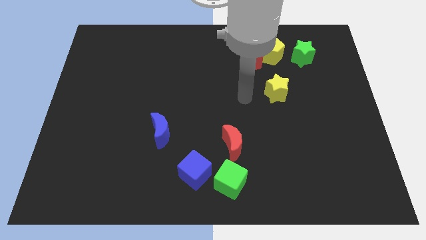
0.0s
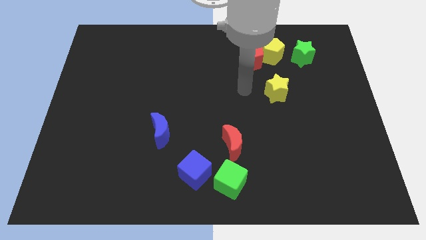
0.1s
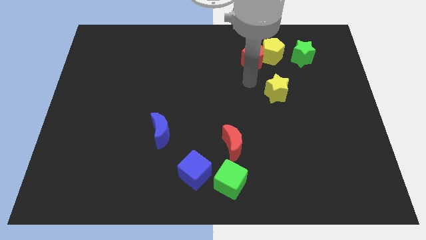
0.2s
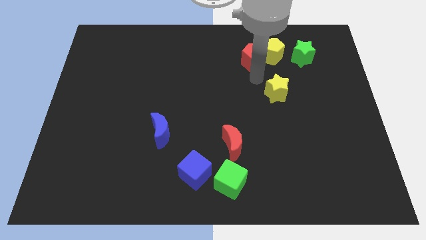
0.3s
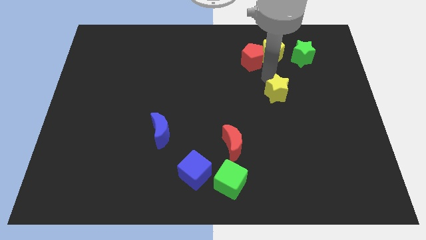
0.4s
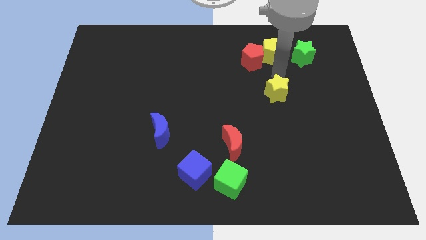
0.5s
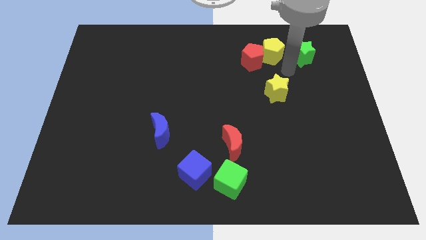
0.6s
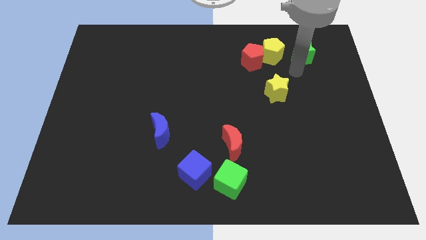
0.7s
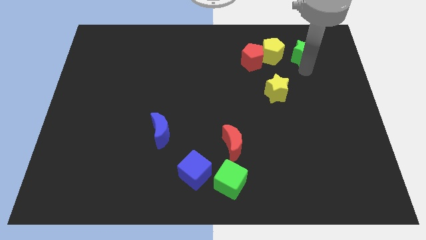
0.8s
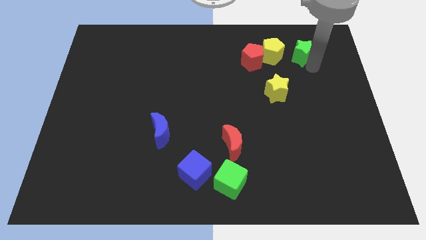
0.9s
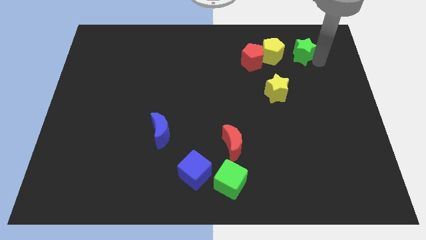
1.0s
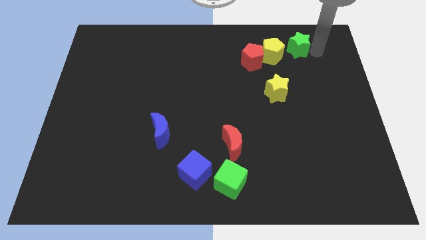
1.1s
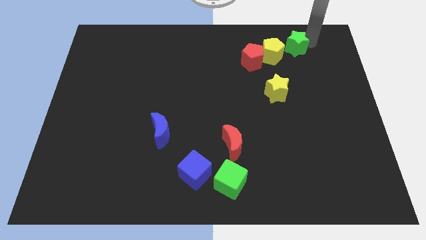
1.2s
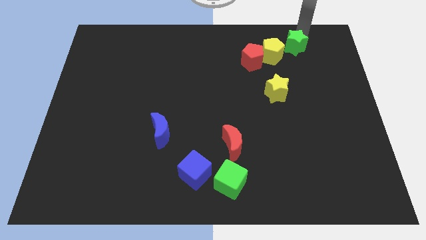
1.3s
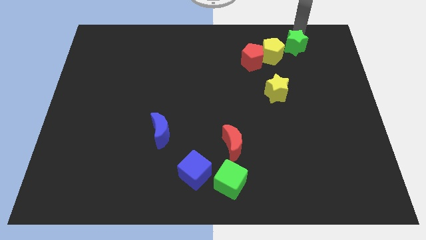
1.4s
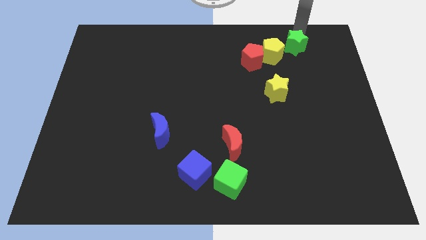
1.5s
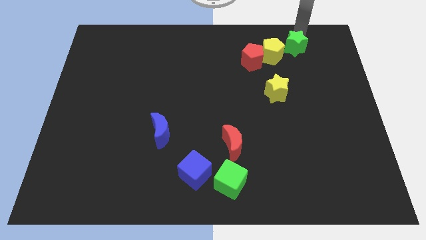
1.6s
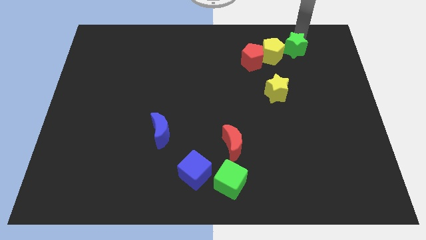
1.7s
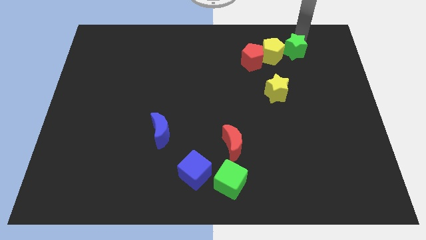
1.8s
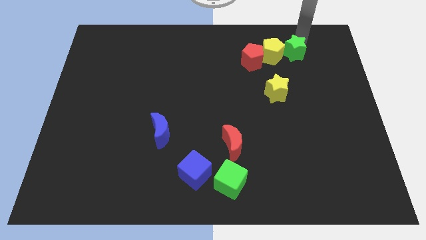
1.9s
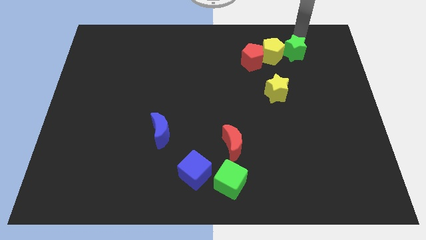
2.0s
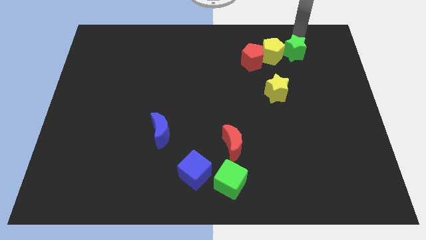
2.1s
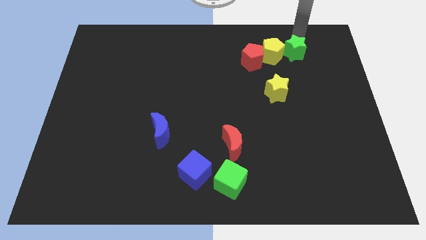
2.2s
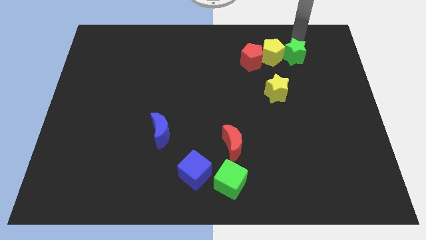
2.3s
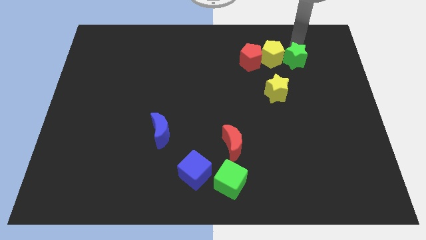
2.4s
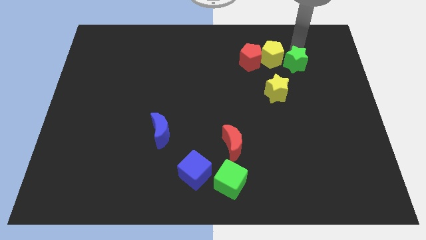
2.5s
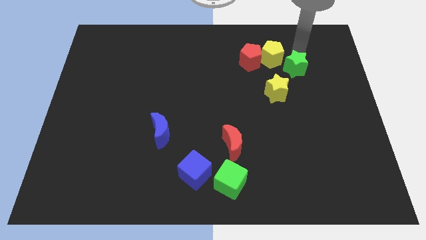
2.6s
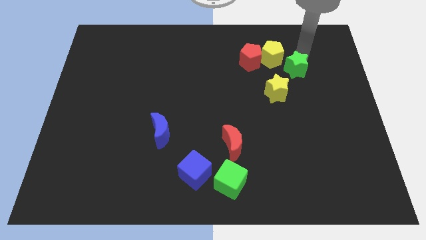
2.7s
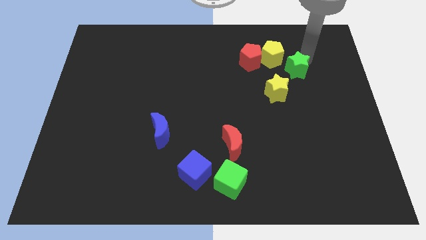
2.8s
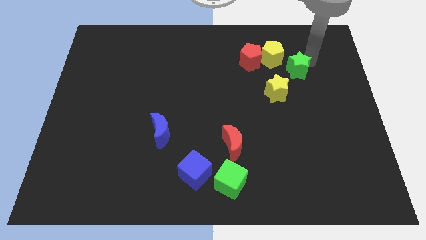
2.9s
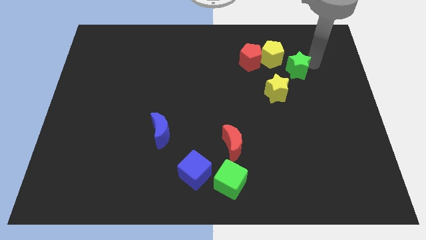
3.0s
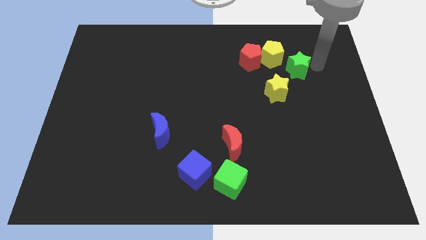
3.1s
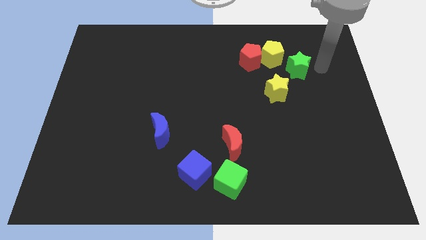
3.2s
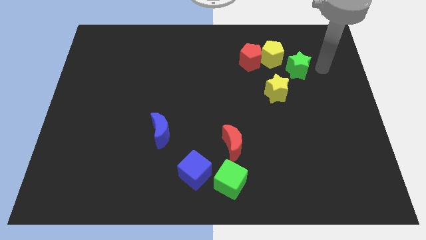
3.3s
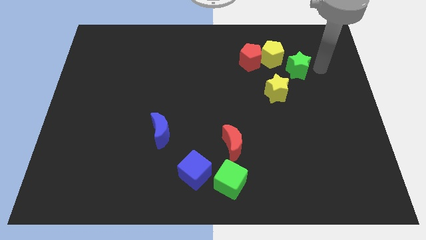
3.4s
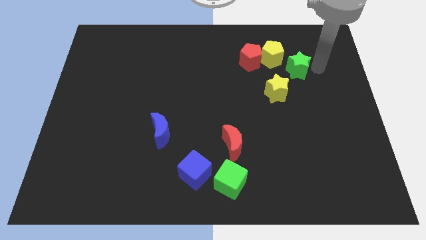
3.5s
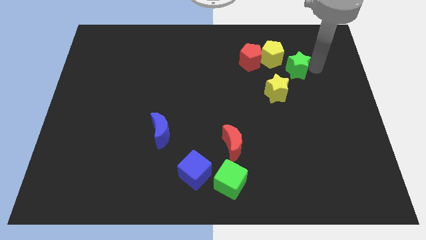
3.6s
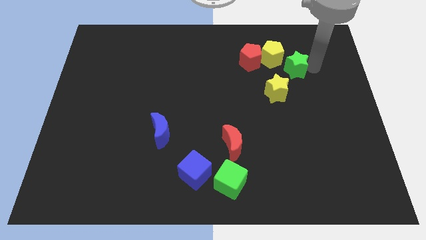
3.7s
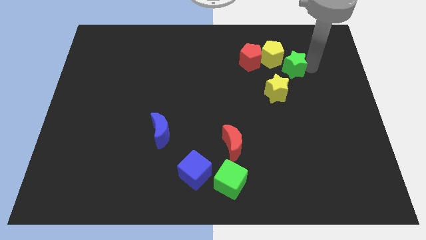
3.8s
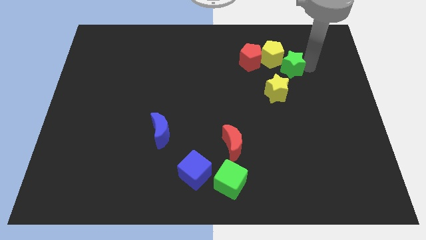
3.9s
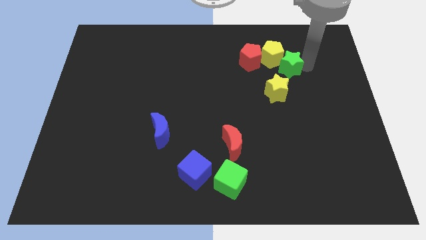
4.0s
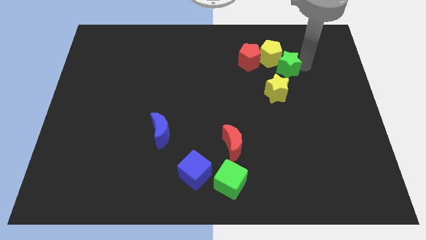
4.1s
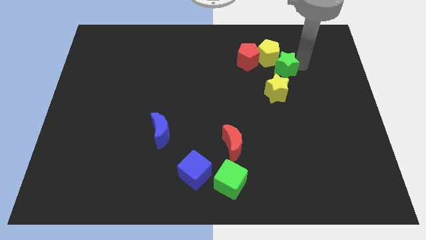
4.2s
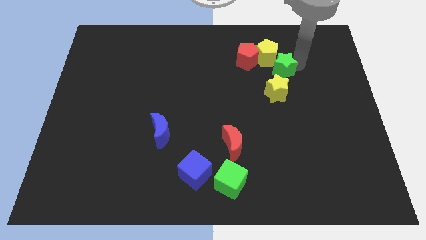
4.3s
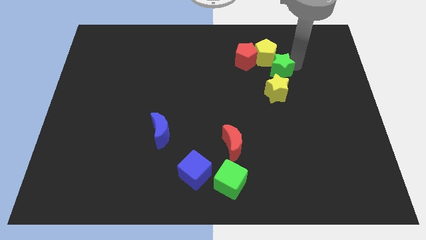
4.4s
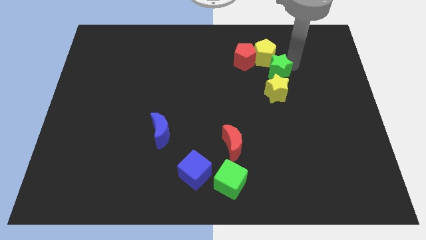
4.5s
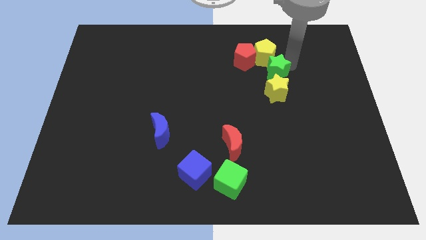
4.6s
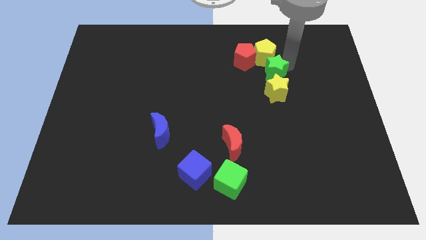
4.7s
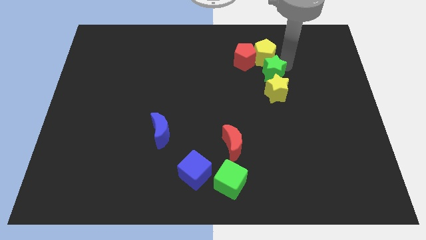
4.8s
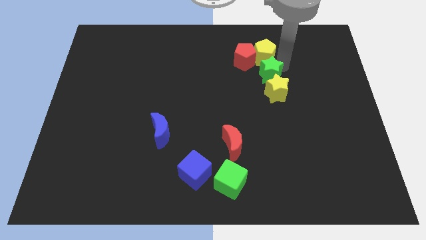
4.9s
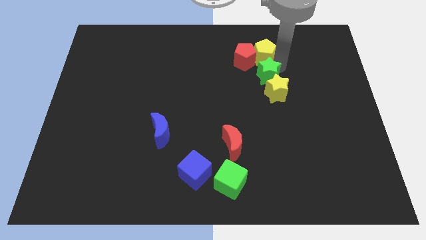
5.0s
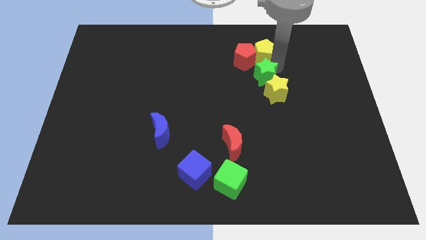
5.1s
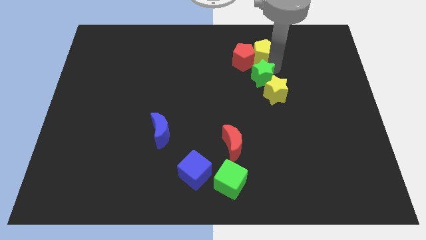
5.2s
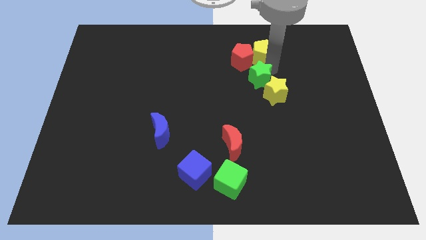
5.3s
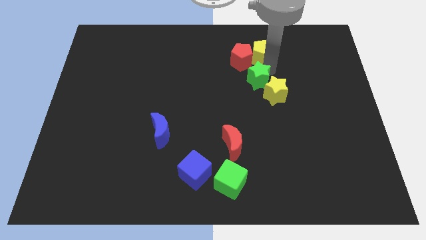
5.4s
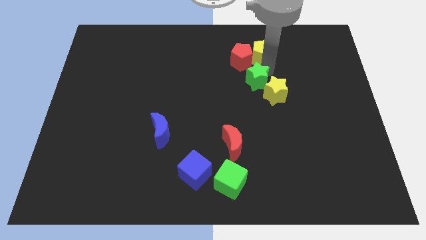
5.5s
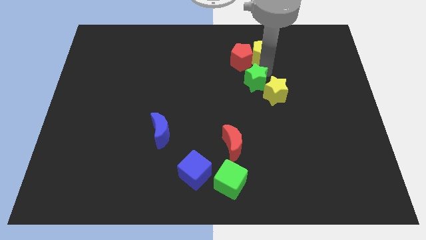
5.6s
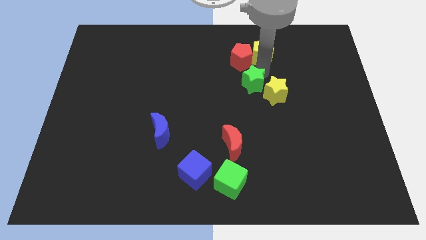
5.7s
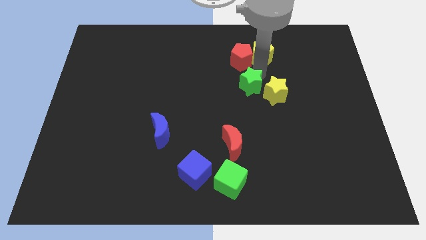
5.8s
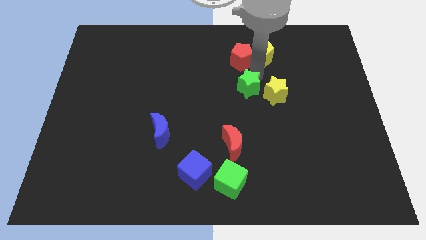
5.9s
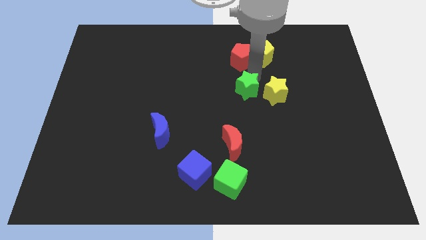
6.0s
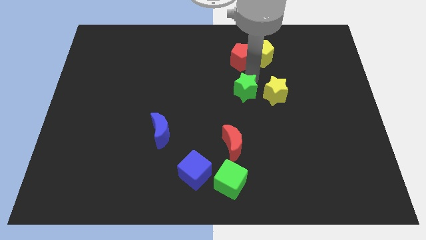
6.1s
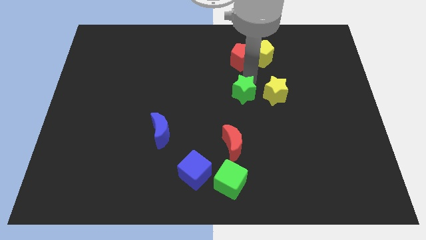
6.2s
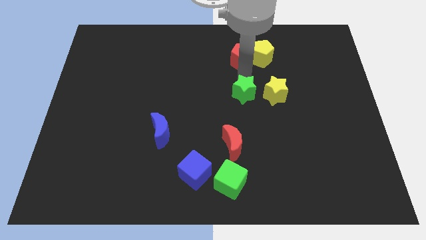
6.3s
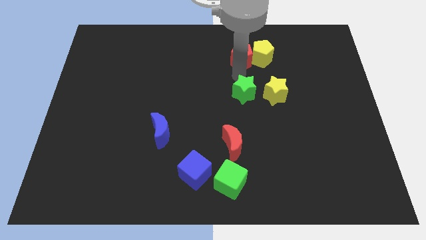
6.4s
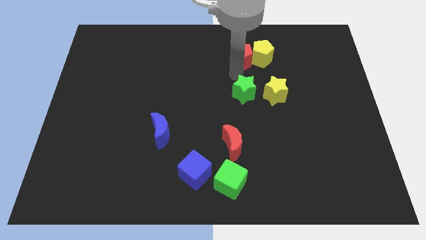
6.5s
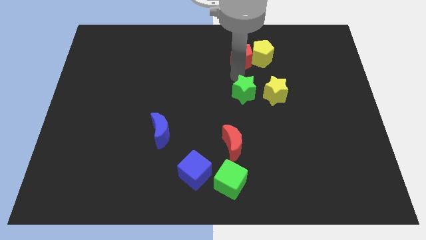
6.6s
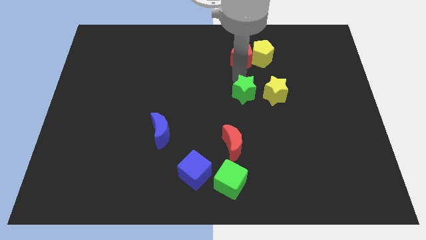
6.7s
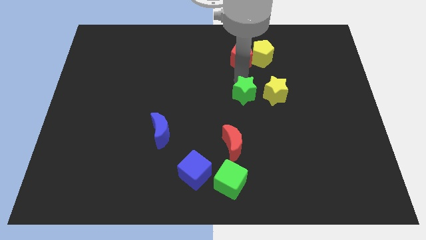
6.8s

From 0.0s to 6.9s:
push the green star diagonally down and to the left of the yellow star
